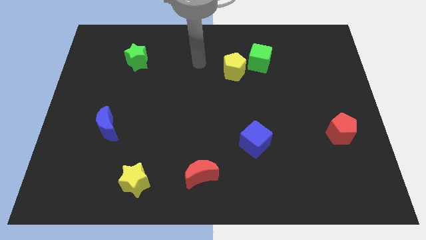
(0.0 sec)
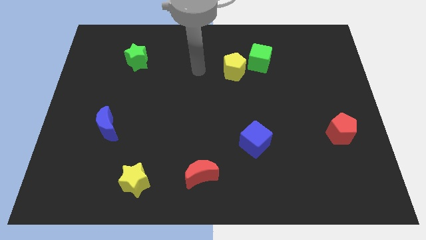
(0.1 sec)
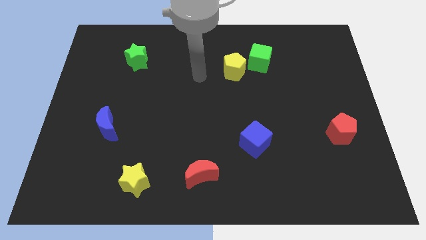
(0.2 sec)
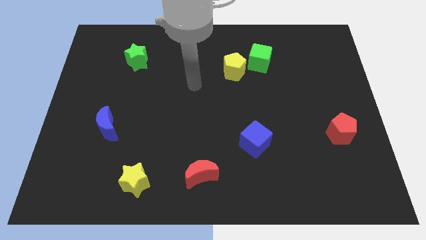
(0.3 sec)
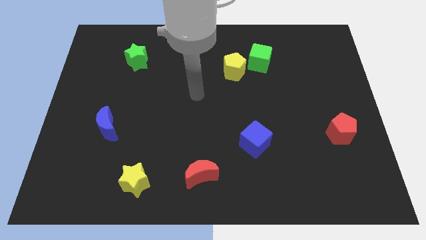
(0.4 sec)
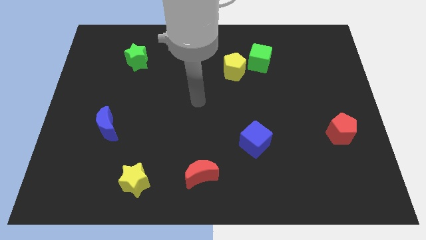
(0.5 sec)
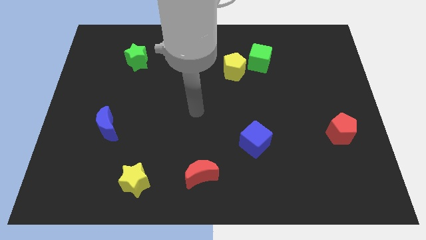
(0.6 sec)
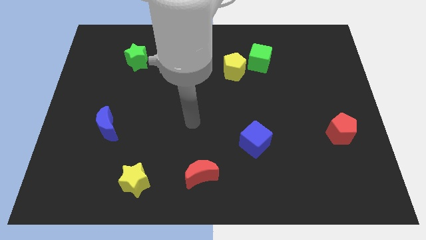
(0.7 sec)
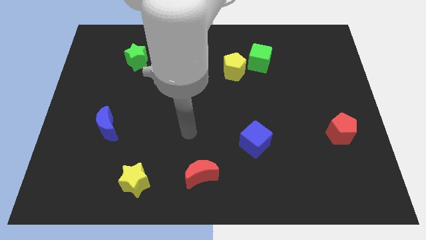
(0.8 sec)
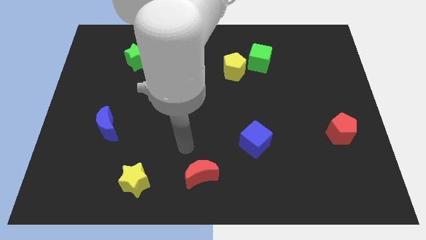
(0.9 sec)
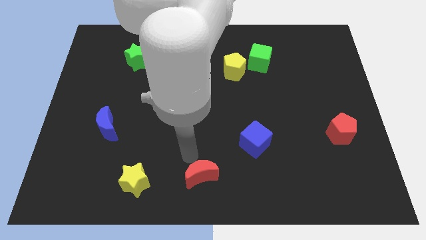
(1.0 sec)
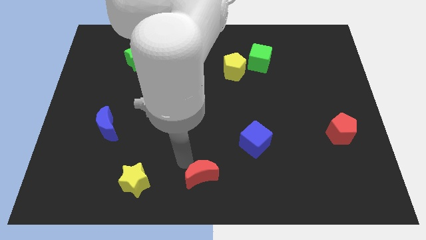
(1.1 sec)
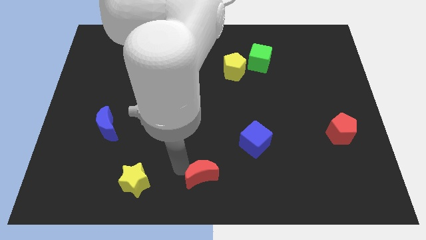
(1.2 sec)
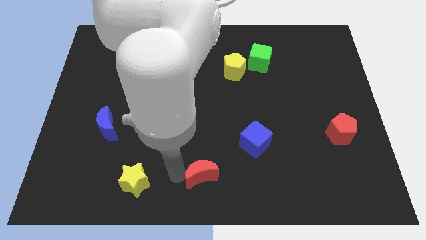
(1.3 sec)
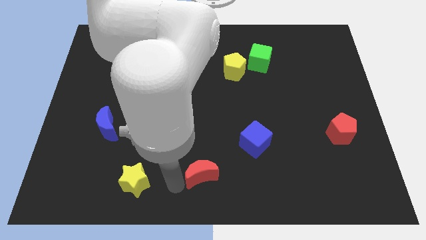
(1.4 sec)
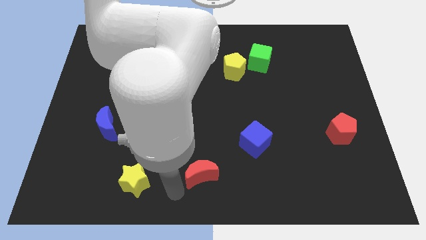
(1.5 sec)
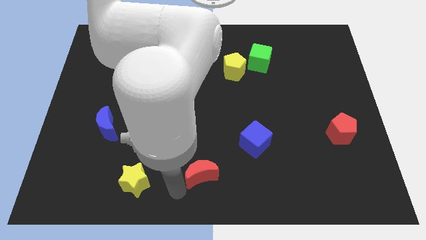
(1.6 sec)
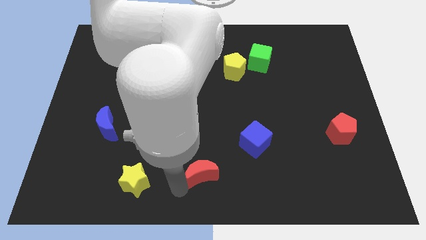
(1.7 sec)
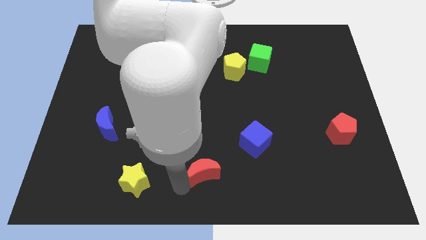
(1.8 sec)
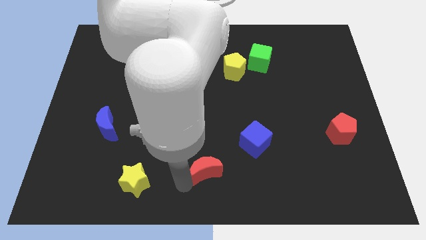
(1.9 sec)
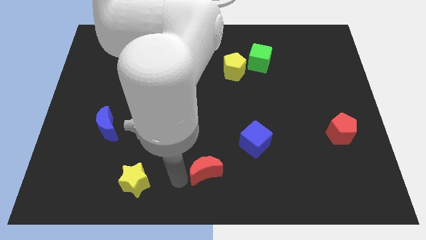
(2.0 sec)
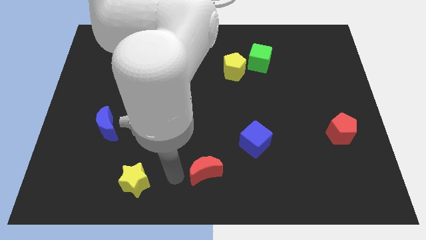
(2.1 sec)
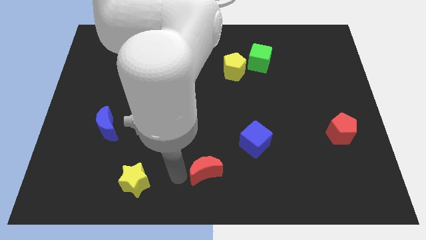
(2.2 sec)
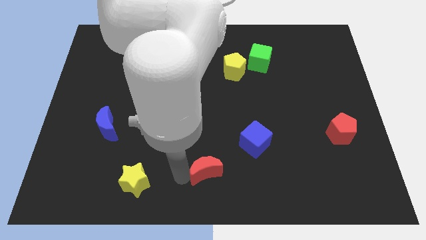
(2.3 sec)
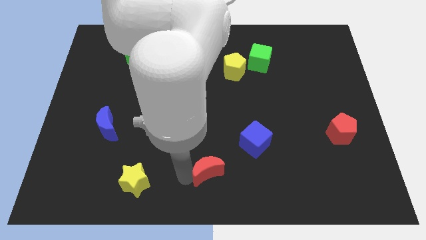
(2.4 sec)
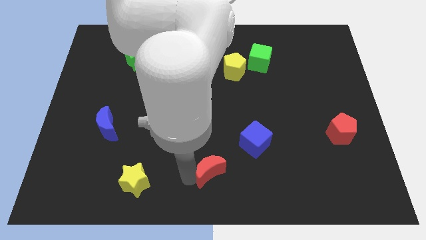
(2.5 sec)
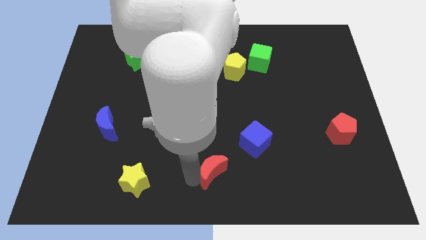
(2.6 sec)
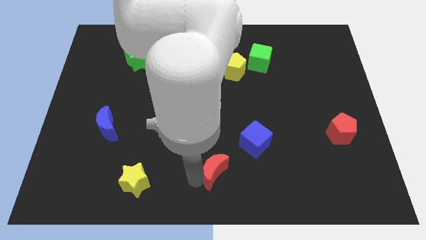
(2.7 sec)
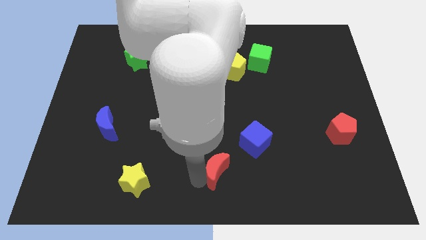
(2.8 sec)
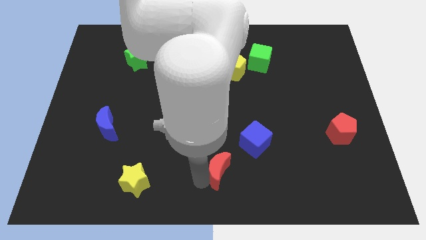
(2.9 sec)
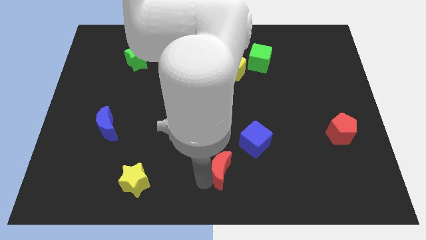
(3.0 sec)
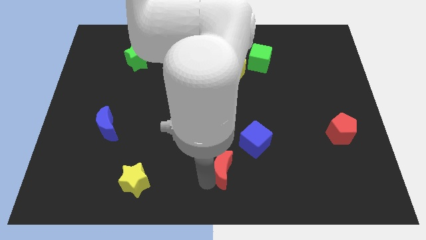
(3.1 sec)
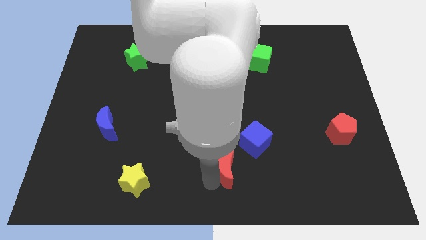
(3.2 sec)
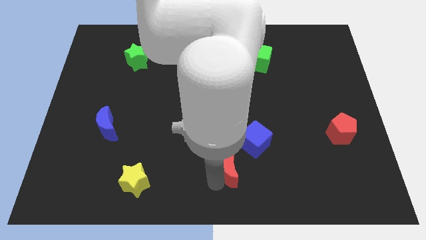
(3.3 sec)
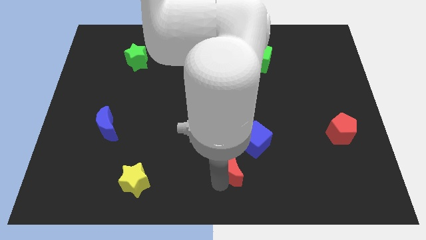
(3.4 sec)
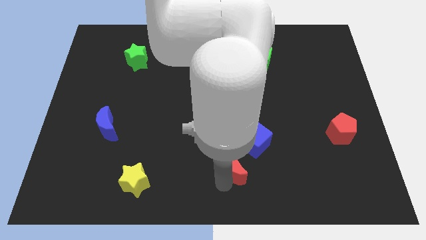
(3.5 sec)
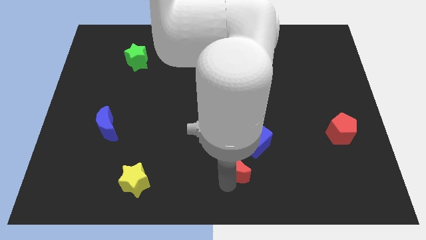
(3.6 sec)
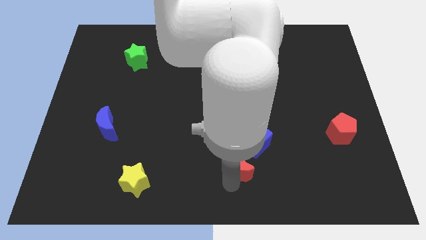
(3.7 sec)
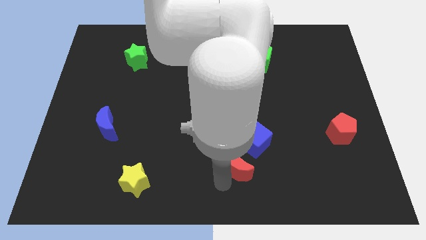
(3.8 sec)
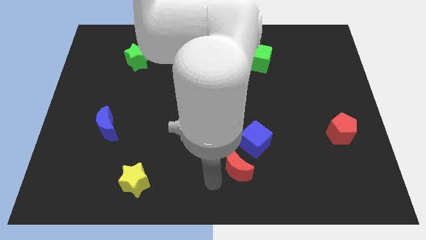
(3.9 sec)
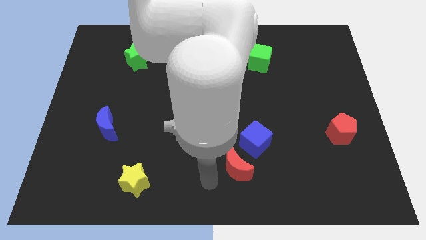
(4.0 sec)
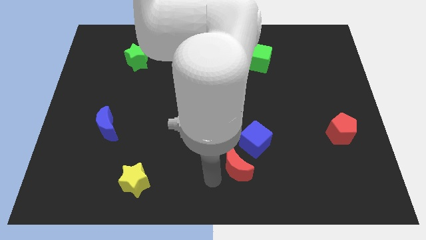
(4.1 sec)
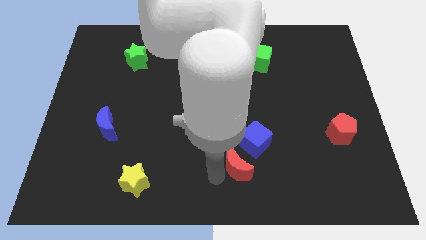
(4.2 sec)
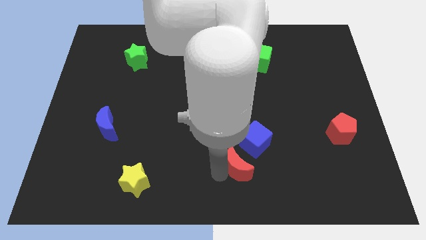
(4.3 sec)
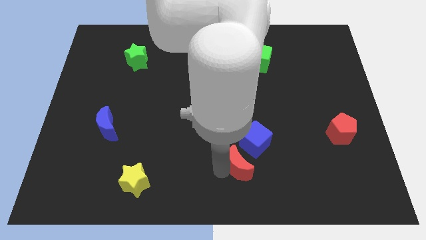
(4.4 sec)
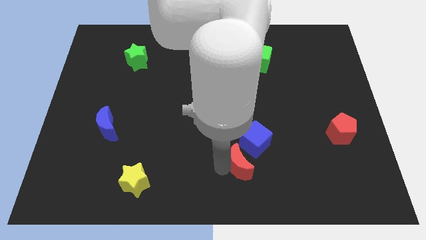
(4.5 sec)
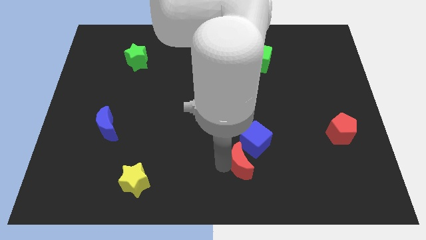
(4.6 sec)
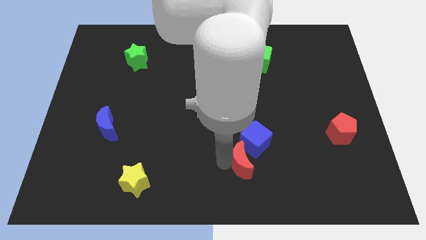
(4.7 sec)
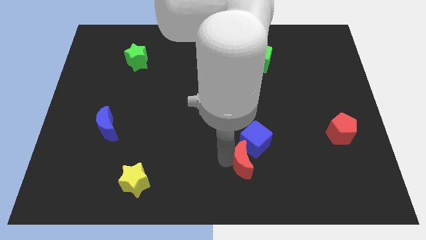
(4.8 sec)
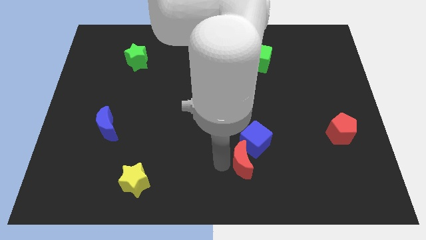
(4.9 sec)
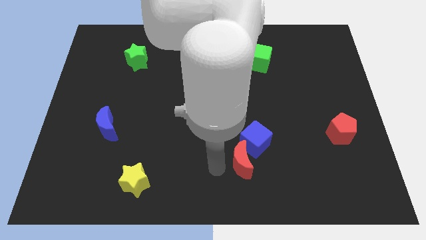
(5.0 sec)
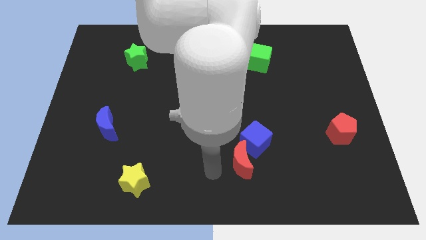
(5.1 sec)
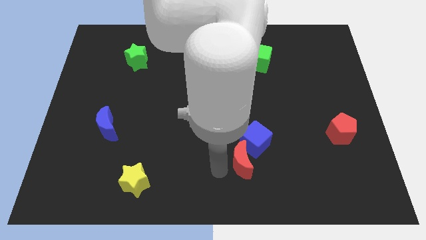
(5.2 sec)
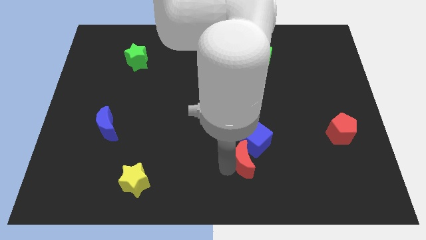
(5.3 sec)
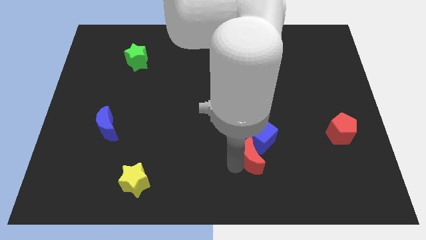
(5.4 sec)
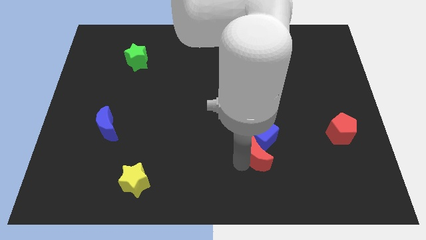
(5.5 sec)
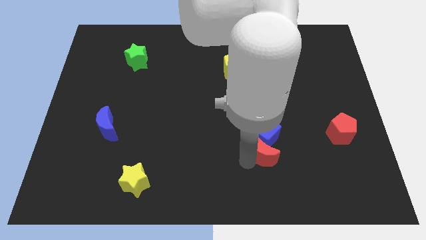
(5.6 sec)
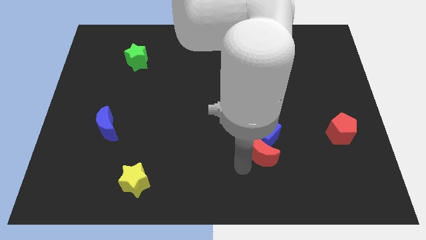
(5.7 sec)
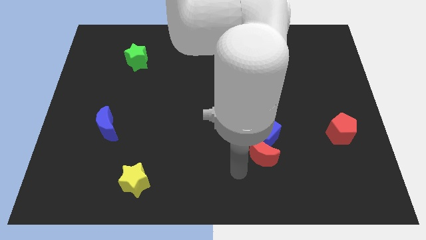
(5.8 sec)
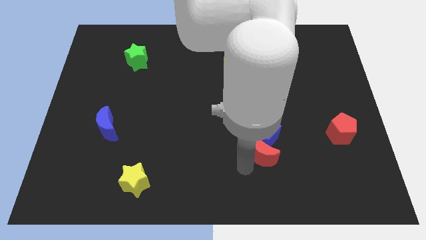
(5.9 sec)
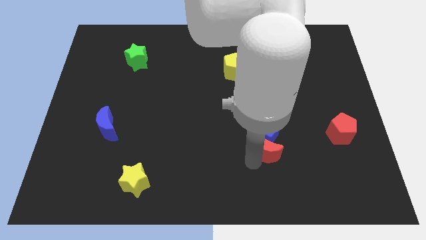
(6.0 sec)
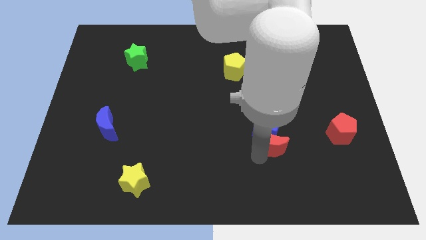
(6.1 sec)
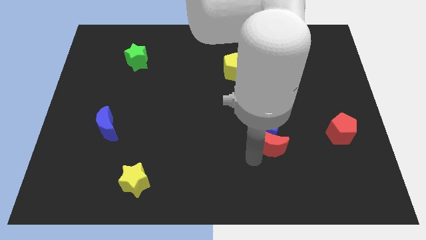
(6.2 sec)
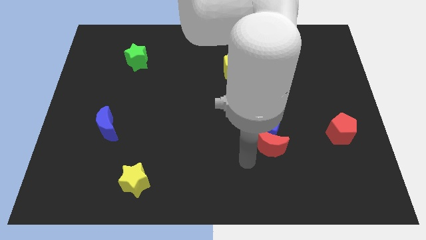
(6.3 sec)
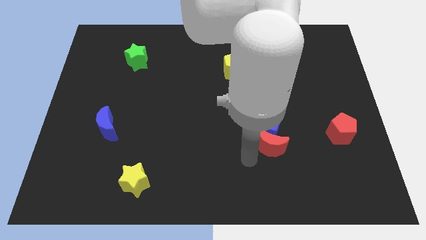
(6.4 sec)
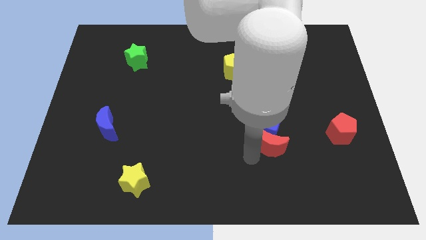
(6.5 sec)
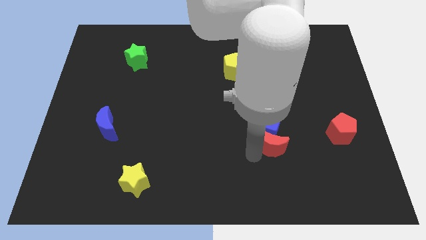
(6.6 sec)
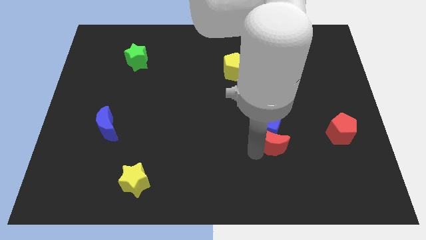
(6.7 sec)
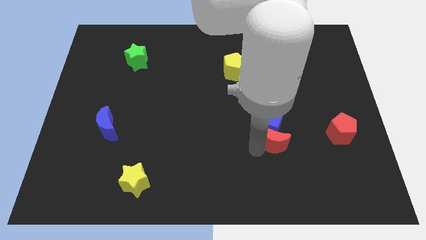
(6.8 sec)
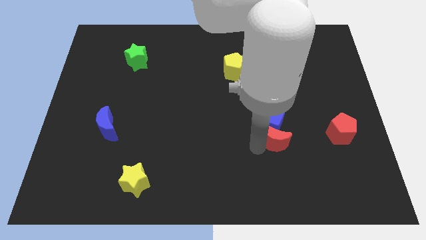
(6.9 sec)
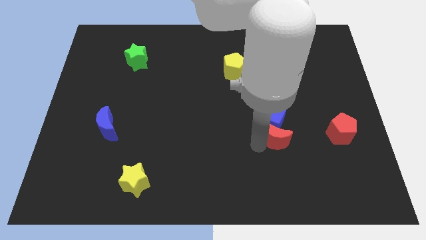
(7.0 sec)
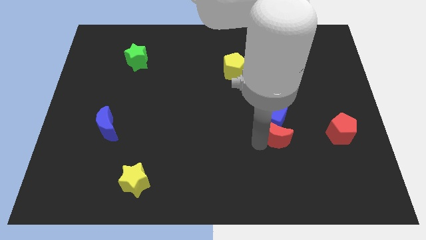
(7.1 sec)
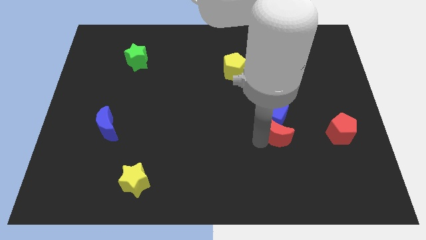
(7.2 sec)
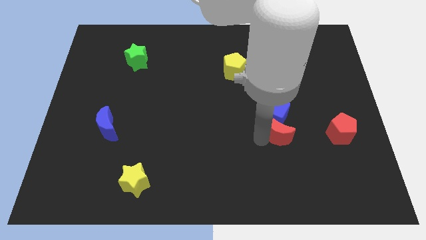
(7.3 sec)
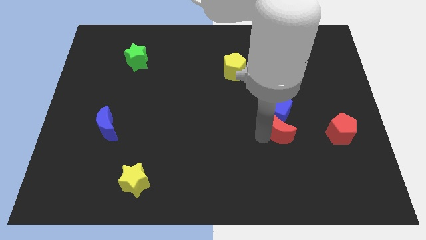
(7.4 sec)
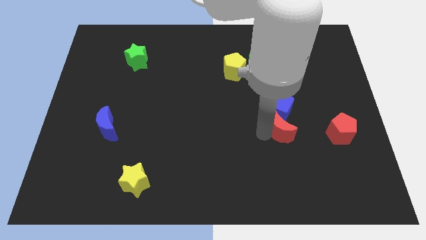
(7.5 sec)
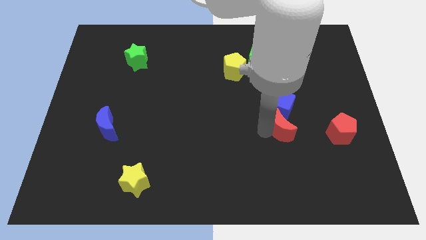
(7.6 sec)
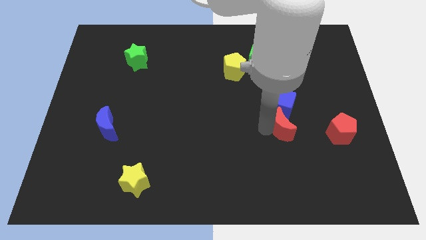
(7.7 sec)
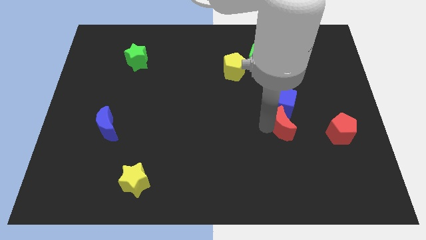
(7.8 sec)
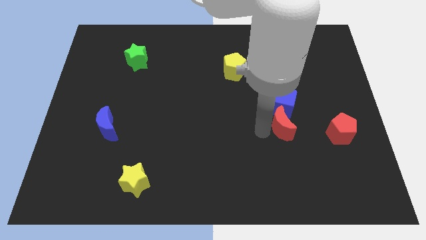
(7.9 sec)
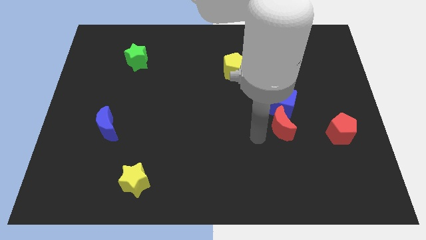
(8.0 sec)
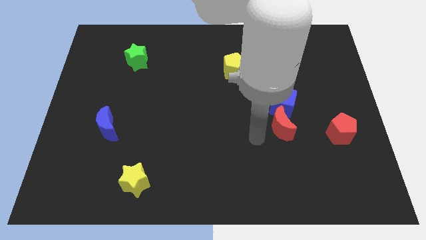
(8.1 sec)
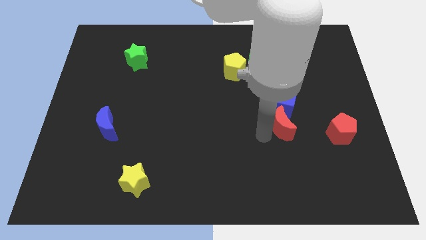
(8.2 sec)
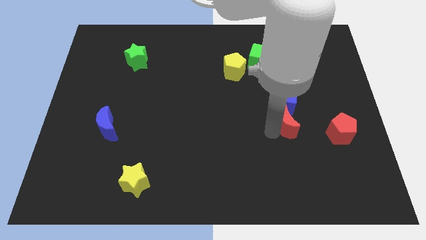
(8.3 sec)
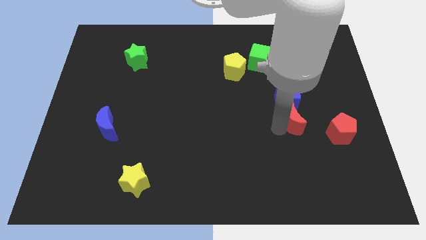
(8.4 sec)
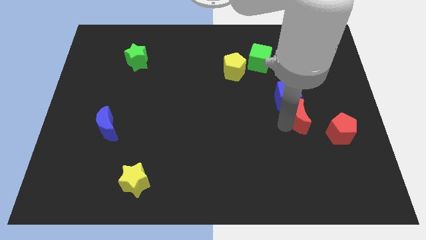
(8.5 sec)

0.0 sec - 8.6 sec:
move the red moon to the top left of the red pentagon
